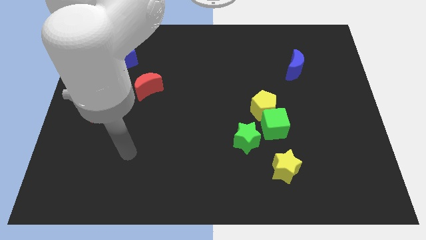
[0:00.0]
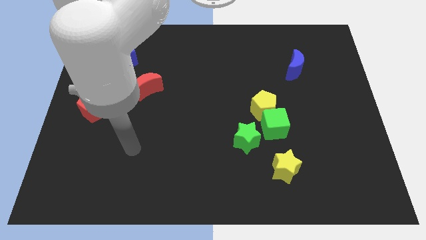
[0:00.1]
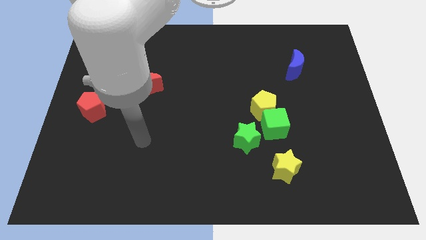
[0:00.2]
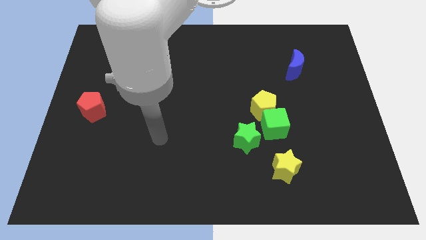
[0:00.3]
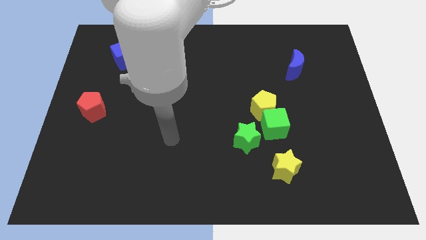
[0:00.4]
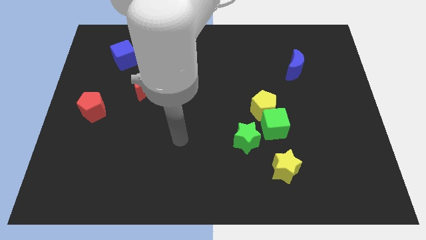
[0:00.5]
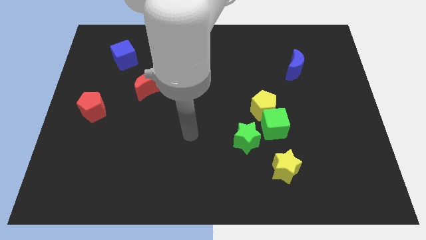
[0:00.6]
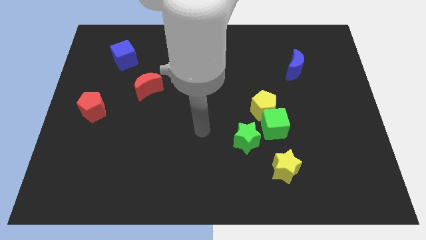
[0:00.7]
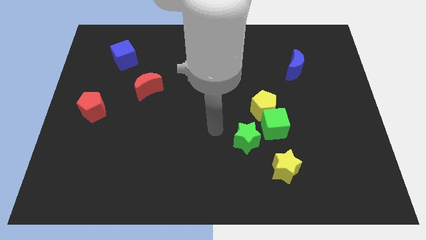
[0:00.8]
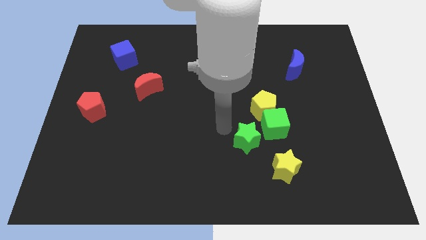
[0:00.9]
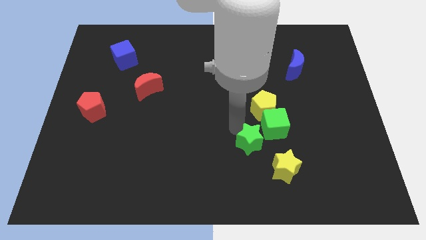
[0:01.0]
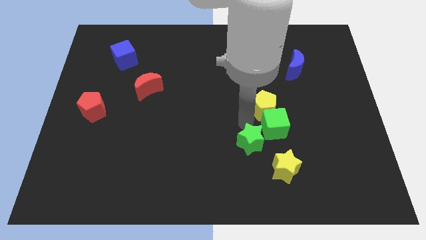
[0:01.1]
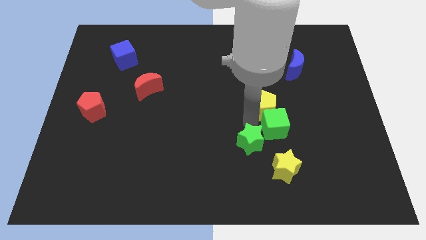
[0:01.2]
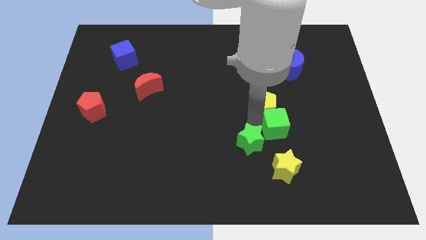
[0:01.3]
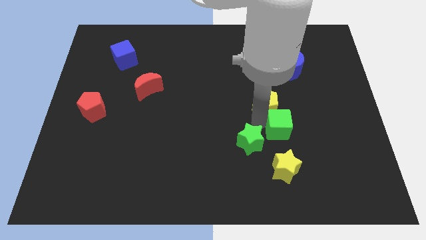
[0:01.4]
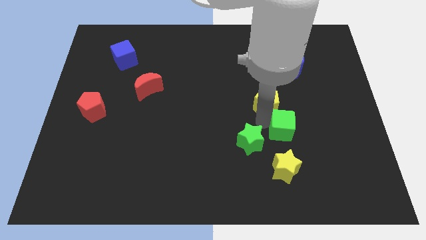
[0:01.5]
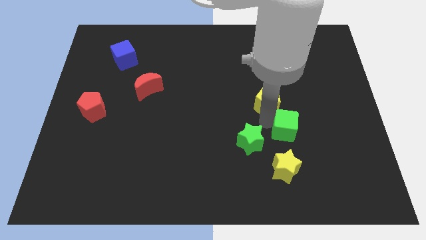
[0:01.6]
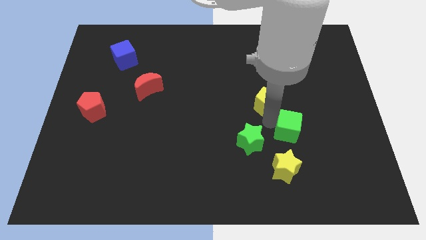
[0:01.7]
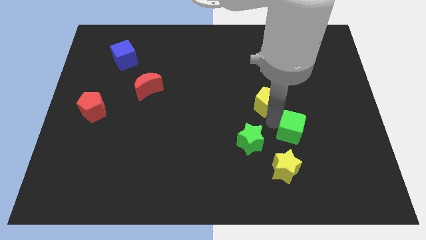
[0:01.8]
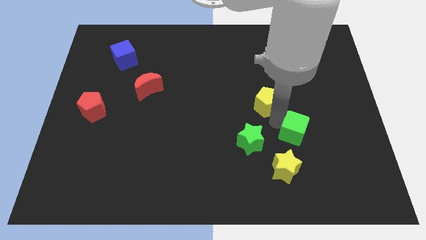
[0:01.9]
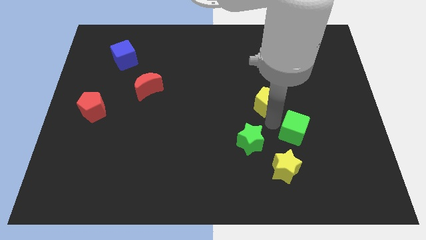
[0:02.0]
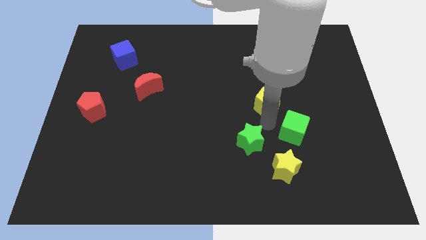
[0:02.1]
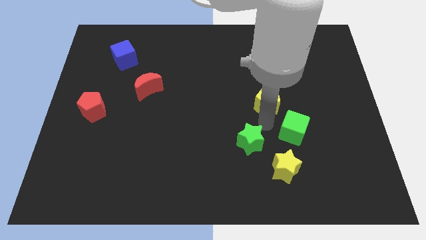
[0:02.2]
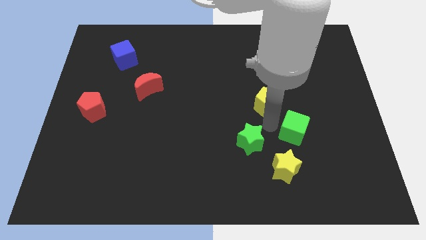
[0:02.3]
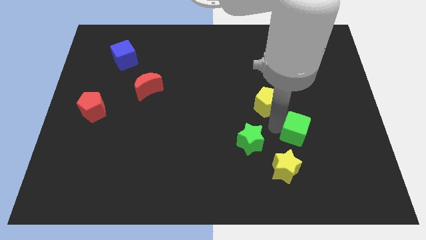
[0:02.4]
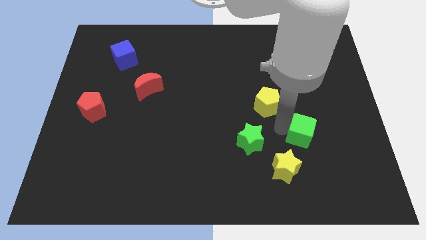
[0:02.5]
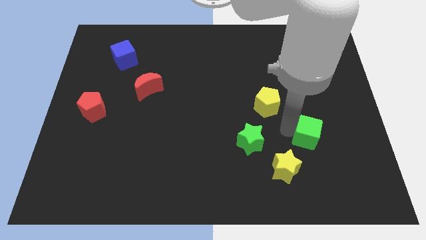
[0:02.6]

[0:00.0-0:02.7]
separate the green cube from the yellow pentagon and green star

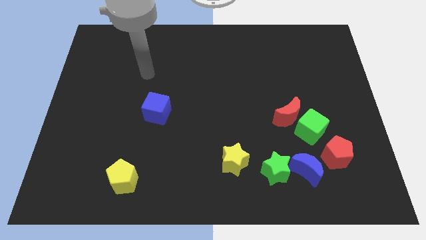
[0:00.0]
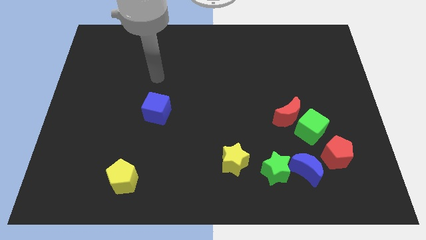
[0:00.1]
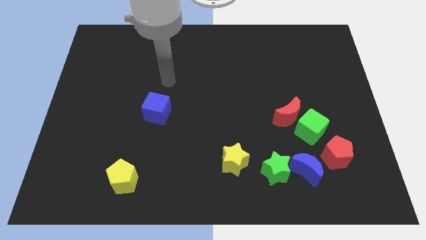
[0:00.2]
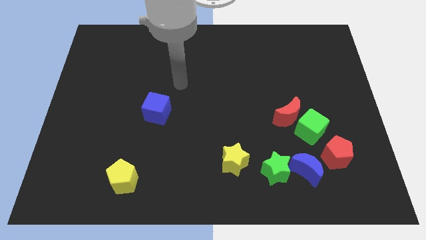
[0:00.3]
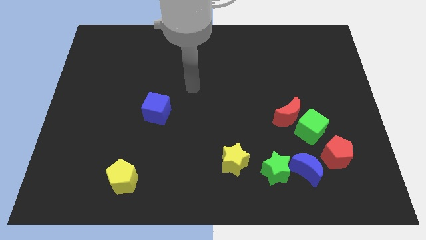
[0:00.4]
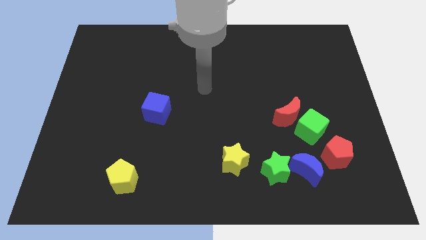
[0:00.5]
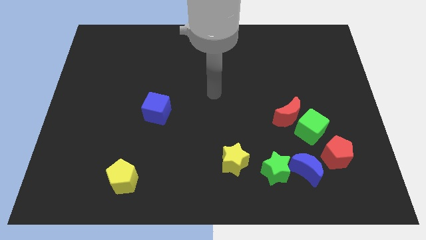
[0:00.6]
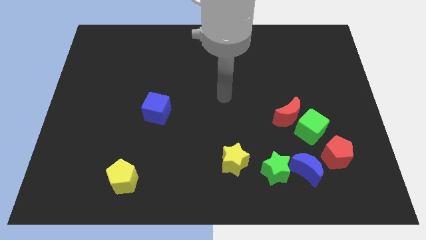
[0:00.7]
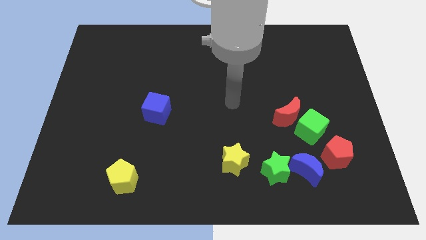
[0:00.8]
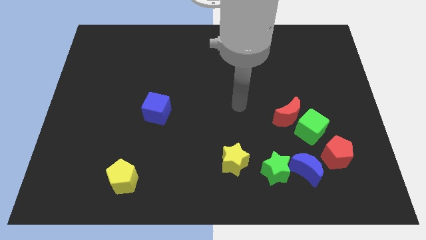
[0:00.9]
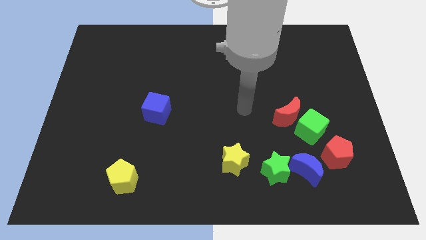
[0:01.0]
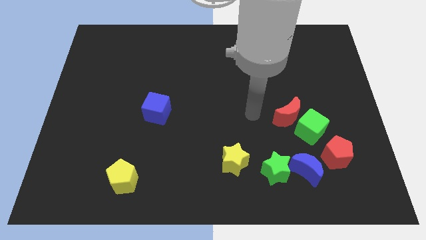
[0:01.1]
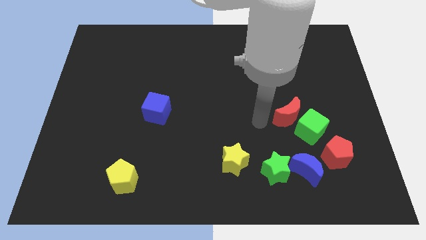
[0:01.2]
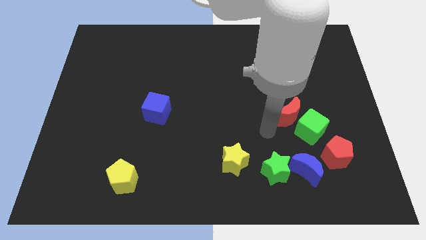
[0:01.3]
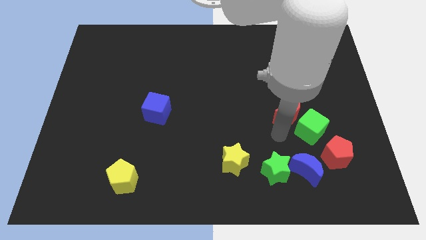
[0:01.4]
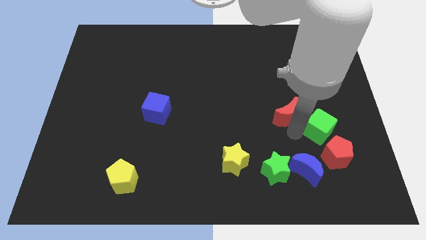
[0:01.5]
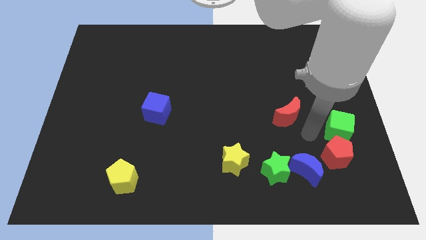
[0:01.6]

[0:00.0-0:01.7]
separate the red moon from the green cube

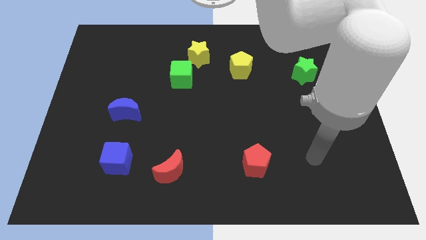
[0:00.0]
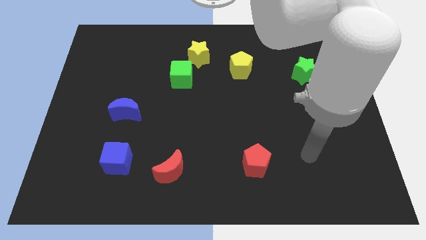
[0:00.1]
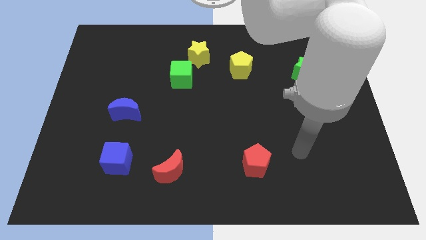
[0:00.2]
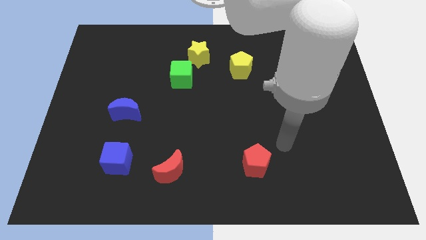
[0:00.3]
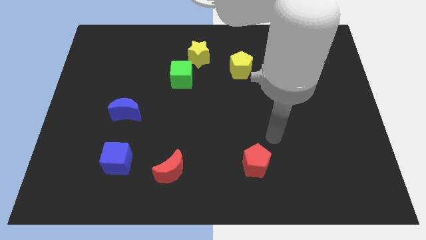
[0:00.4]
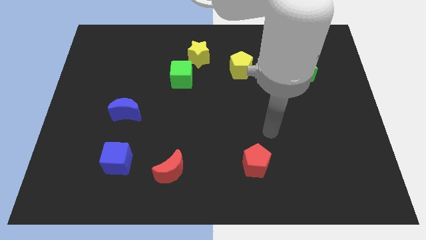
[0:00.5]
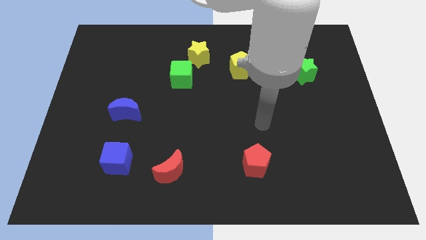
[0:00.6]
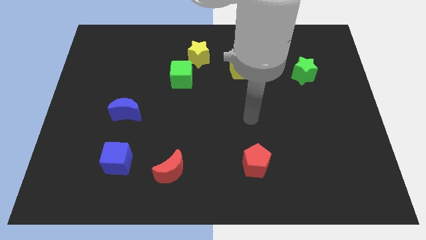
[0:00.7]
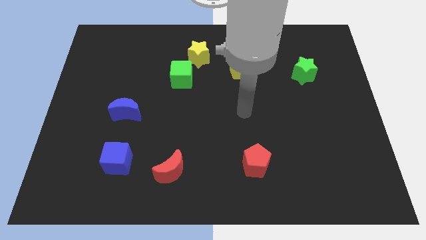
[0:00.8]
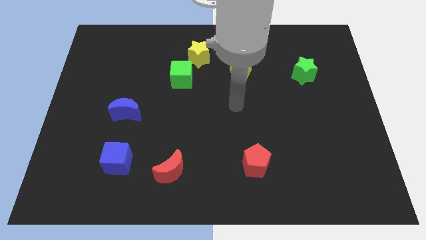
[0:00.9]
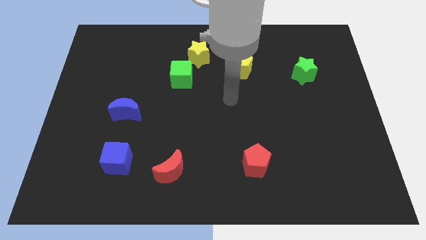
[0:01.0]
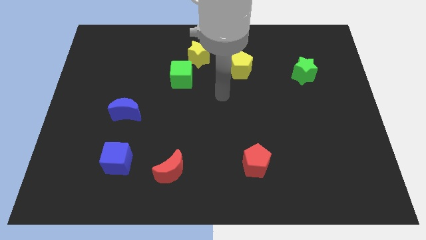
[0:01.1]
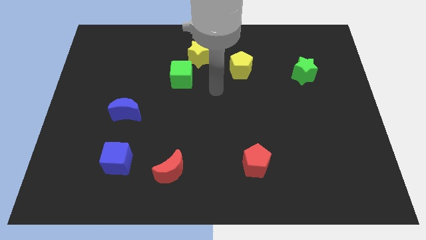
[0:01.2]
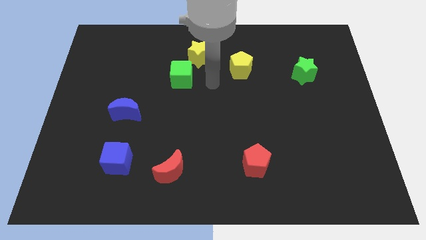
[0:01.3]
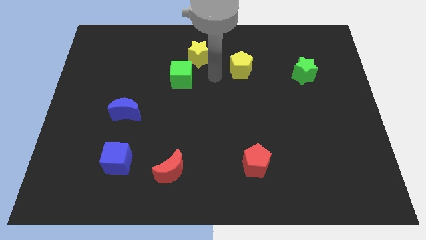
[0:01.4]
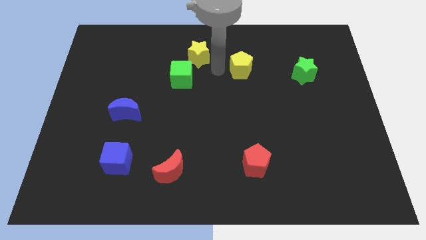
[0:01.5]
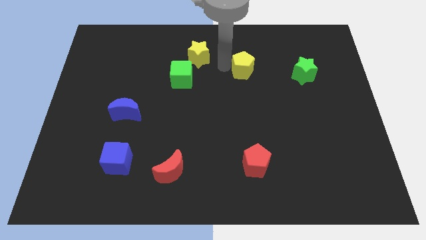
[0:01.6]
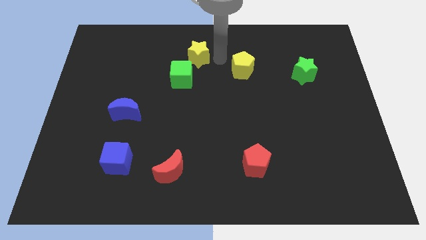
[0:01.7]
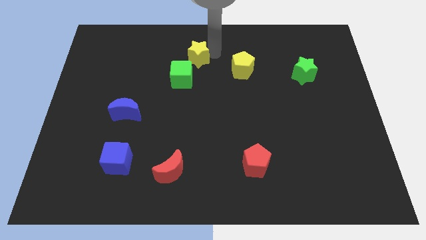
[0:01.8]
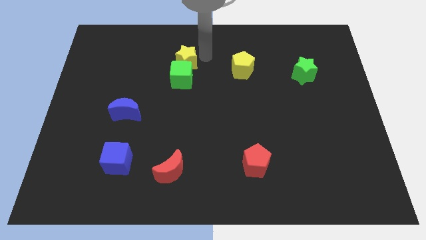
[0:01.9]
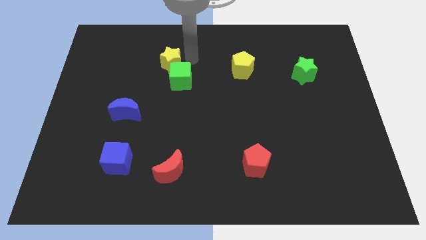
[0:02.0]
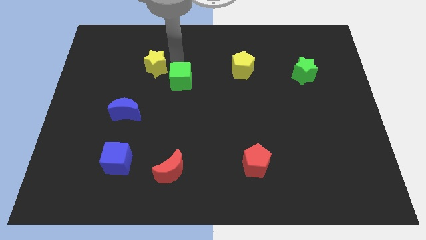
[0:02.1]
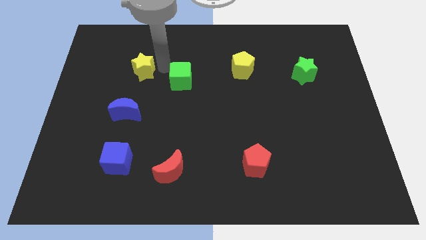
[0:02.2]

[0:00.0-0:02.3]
separate the green cube from the yellow star

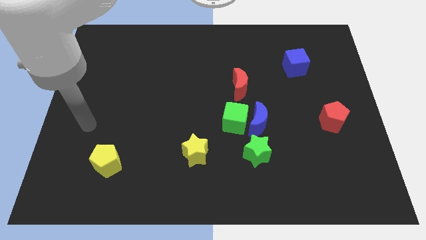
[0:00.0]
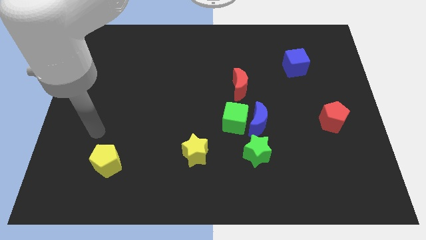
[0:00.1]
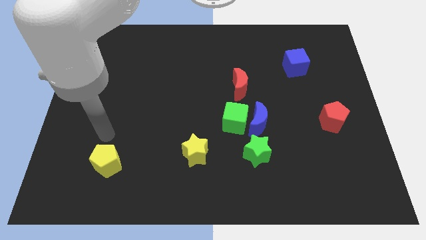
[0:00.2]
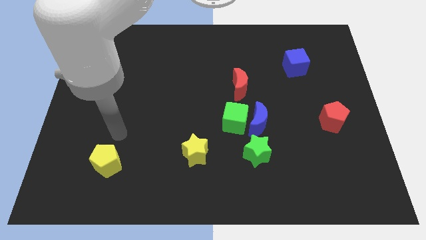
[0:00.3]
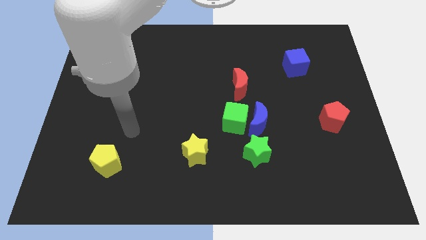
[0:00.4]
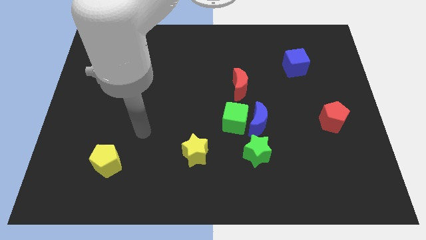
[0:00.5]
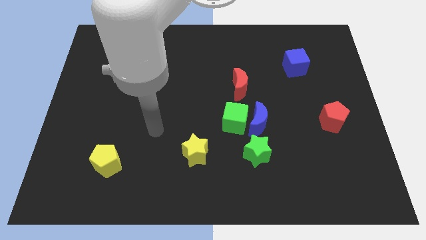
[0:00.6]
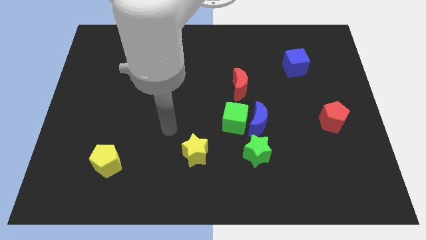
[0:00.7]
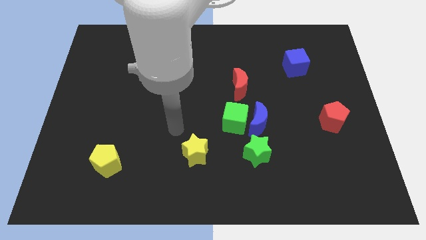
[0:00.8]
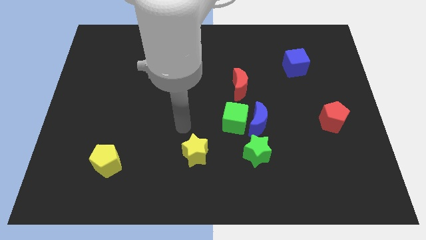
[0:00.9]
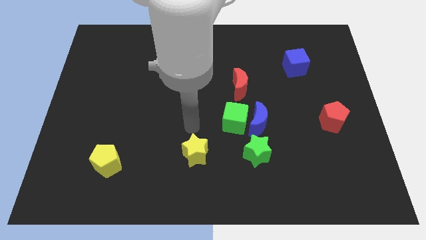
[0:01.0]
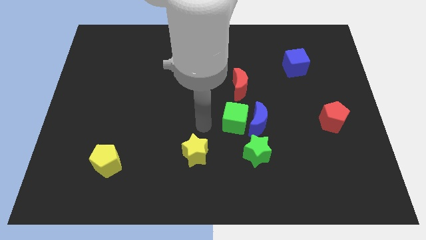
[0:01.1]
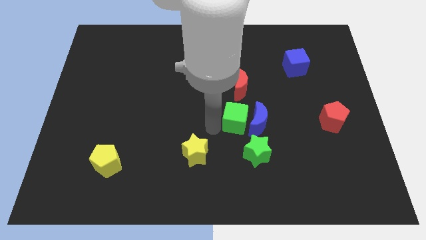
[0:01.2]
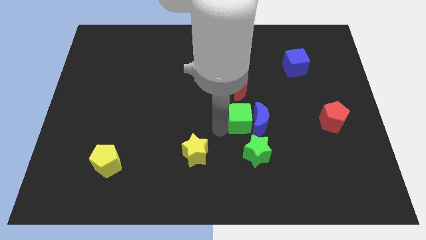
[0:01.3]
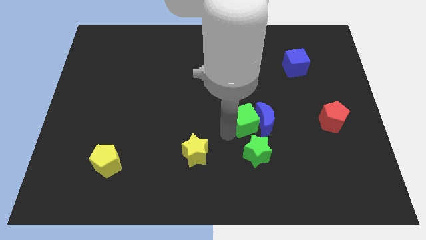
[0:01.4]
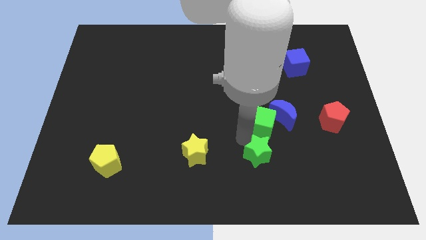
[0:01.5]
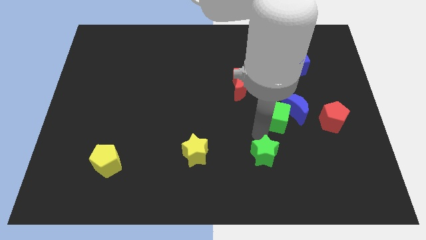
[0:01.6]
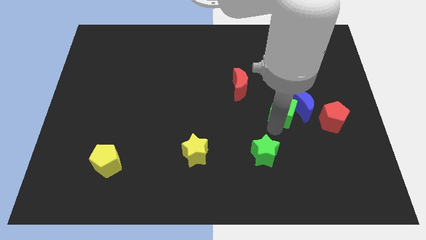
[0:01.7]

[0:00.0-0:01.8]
pull the blue moon apart from the green cube and green star

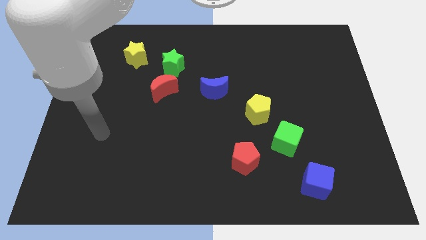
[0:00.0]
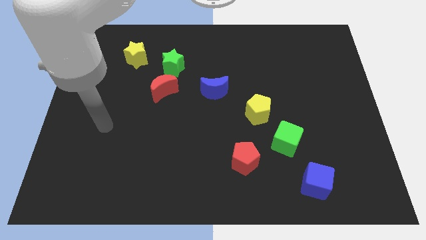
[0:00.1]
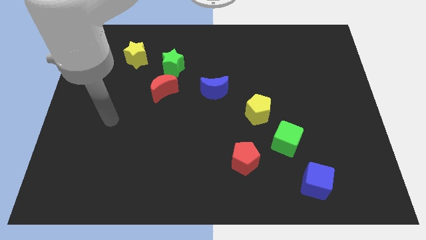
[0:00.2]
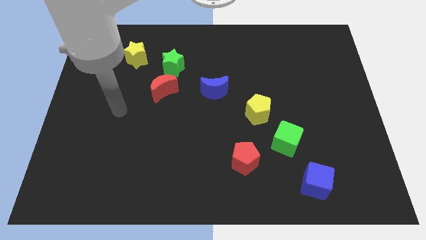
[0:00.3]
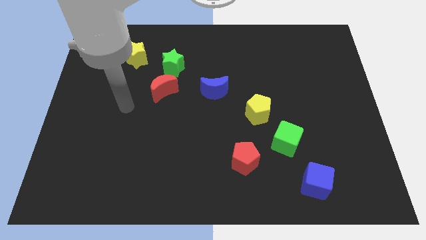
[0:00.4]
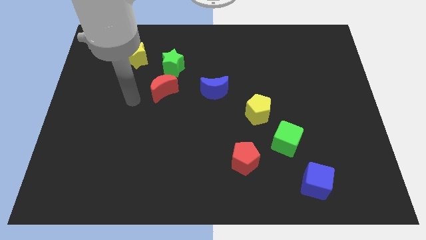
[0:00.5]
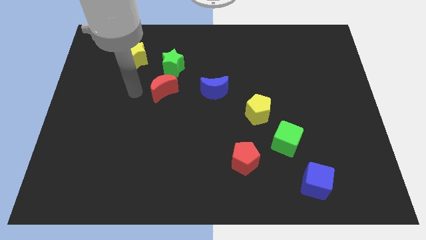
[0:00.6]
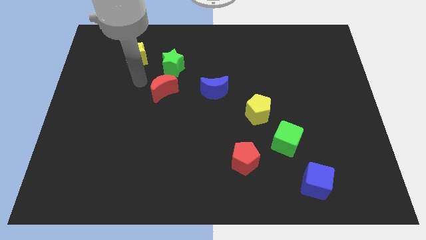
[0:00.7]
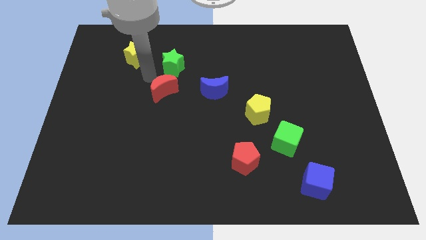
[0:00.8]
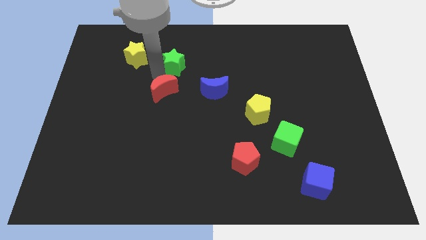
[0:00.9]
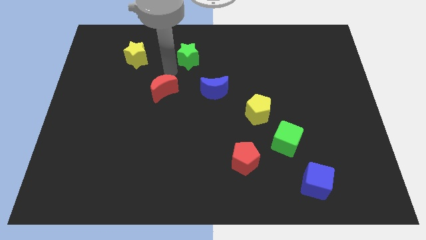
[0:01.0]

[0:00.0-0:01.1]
move the red moon away from the green star
